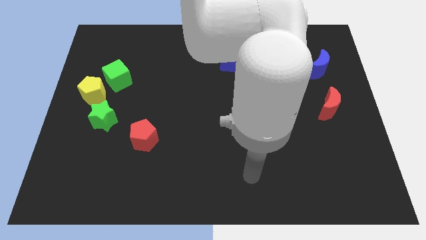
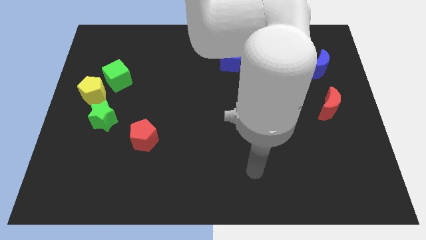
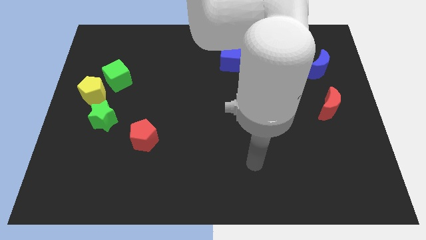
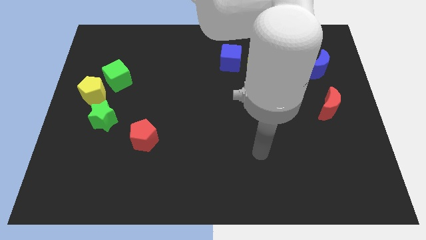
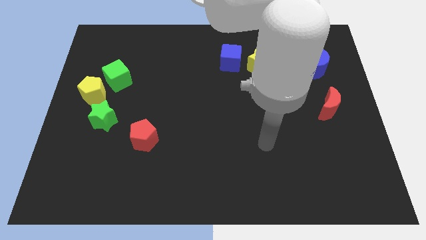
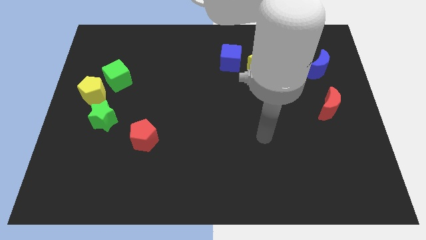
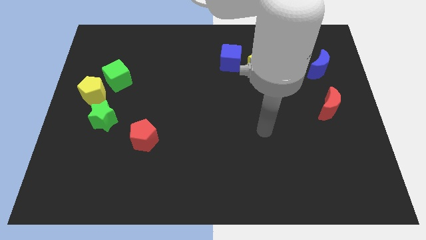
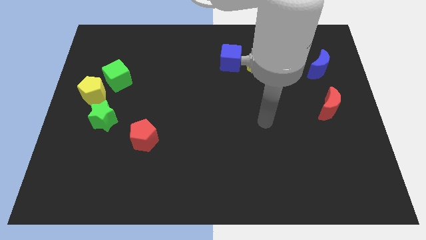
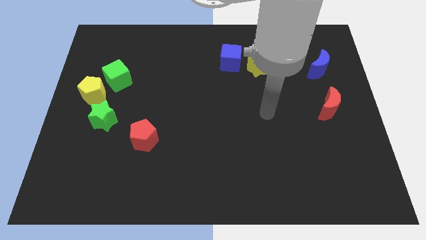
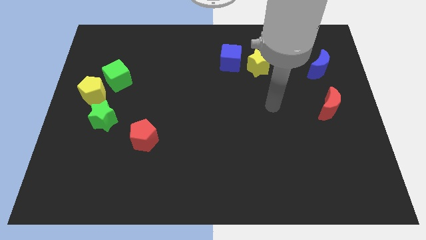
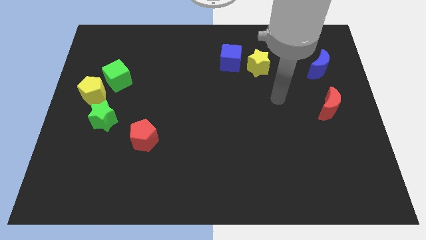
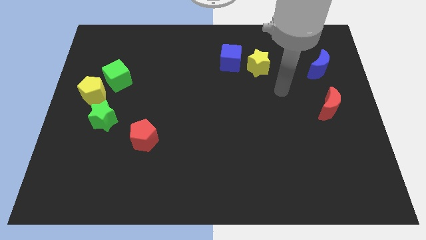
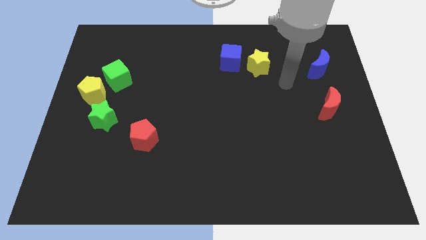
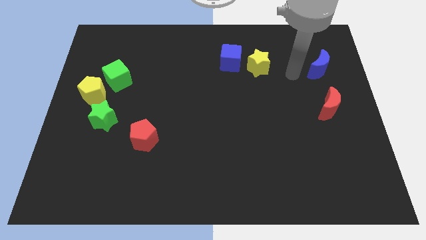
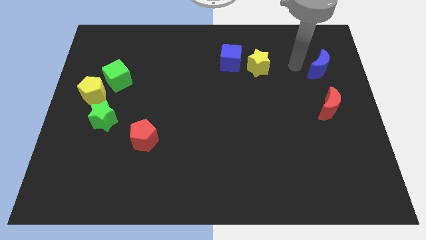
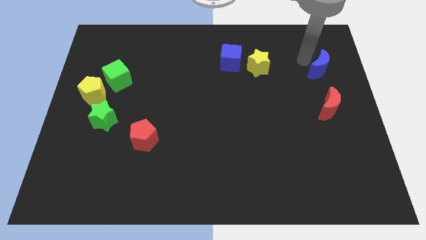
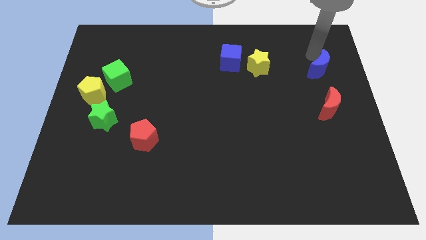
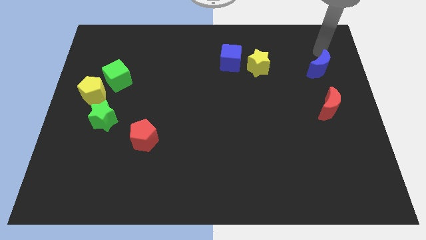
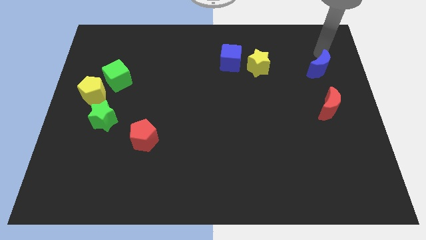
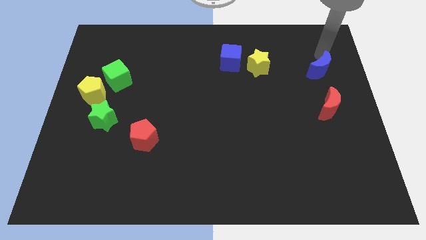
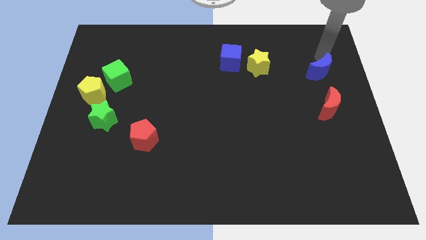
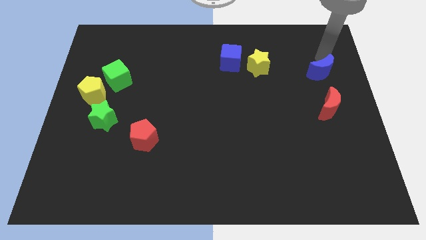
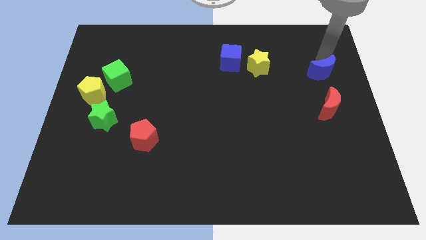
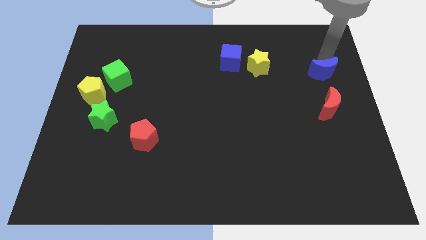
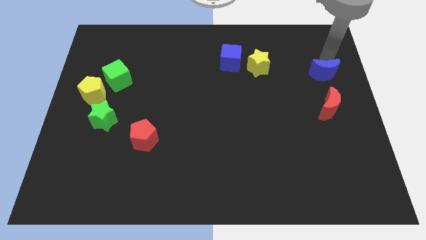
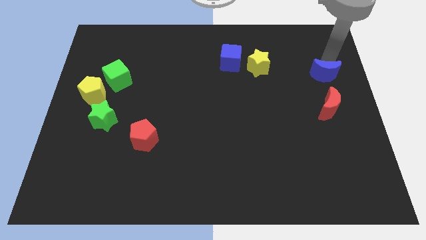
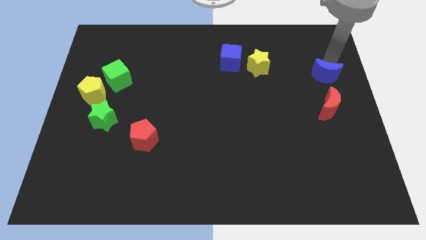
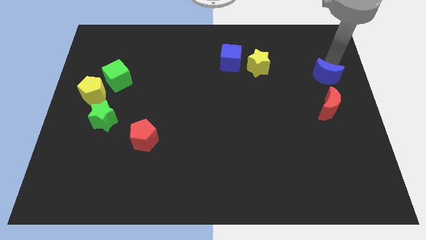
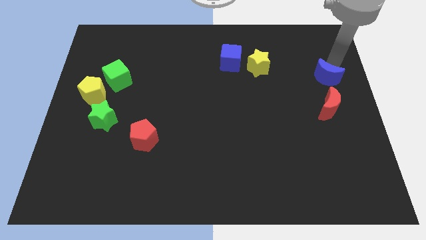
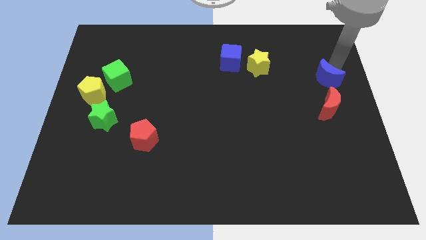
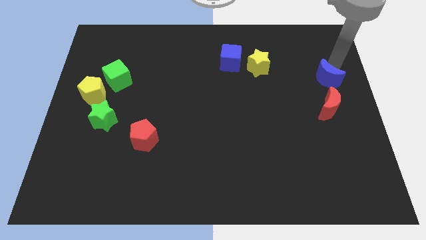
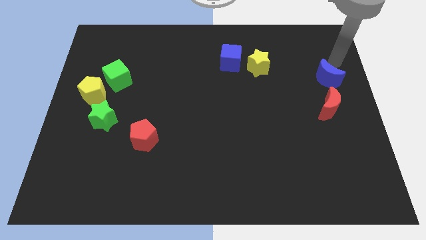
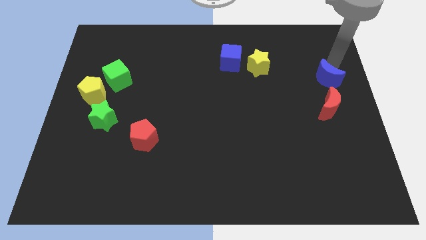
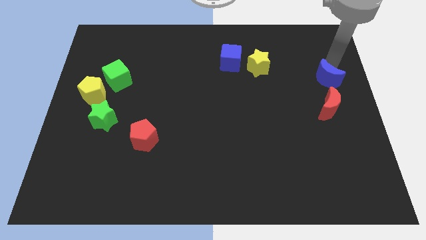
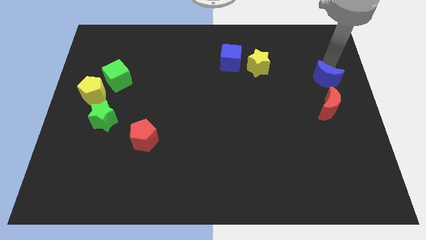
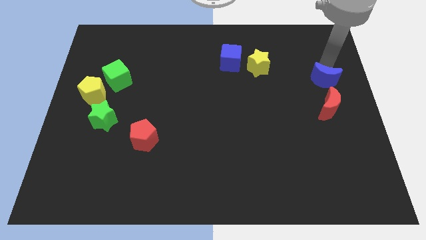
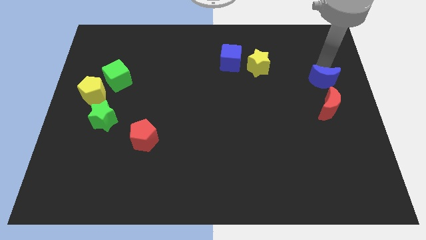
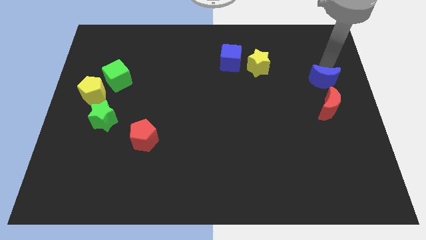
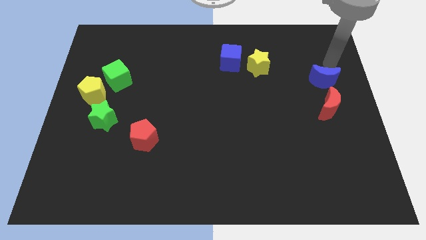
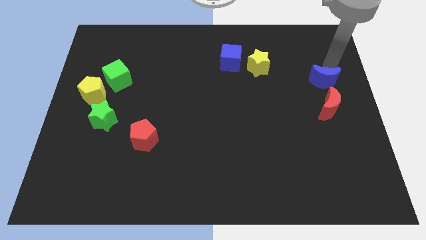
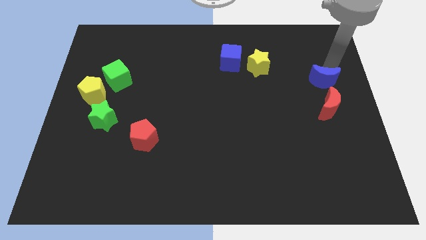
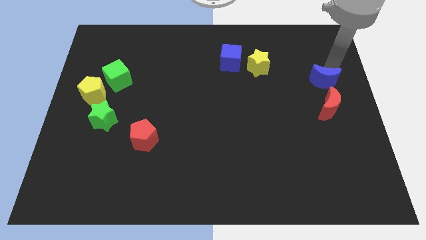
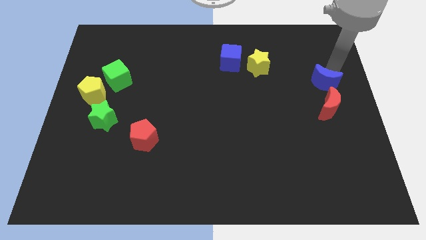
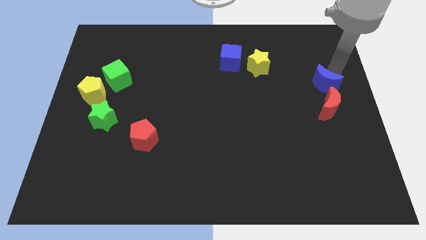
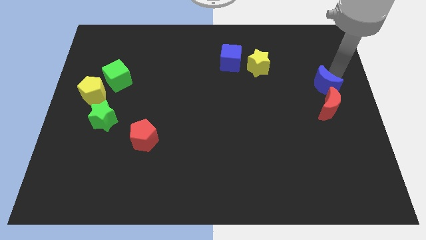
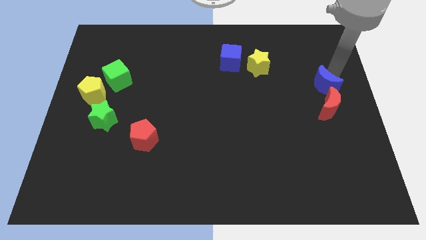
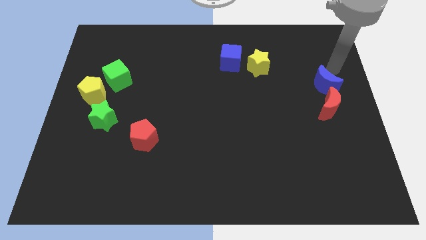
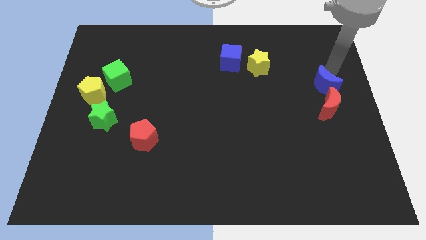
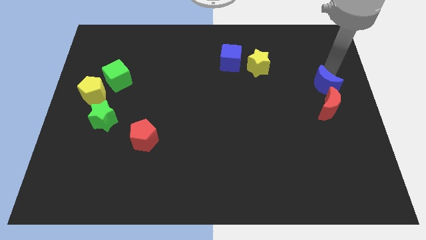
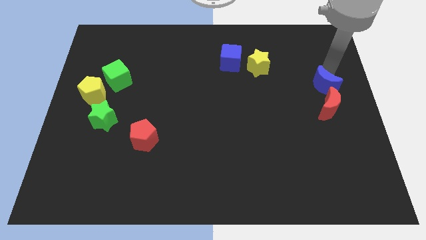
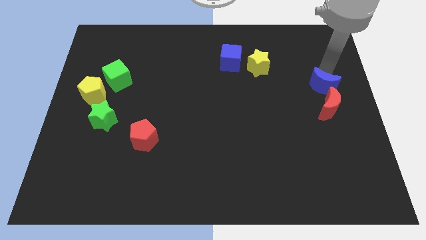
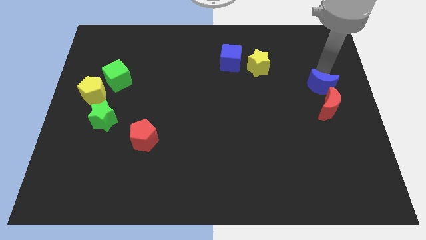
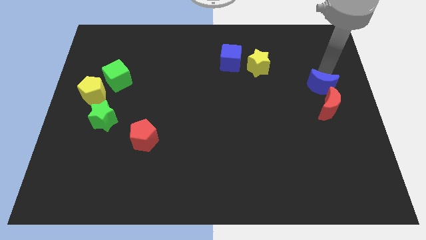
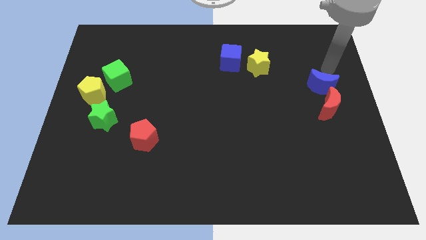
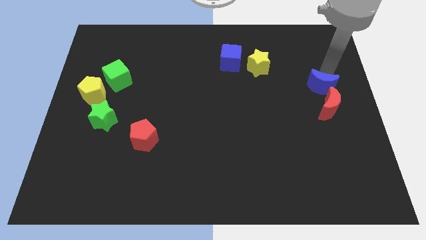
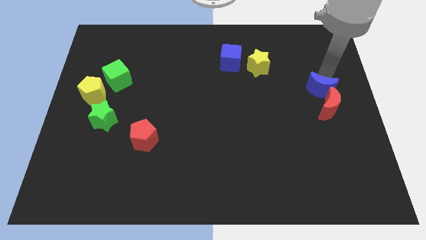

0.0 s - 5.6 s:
push the blue moon a bit downwards

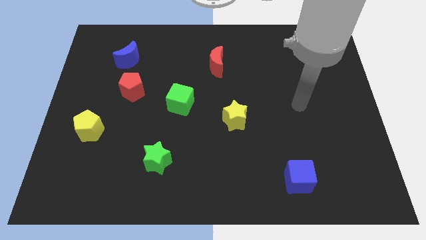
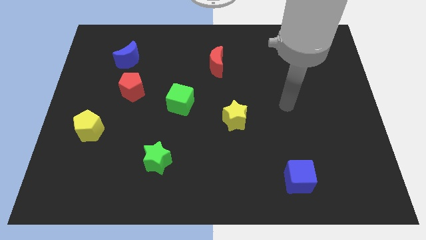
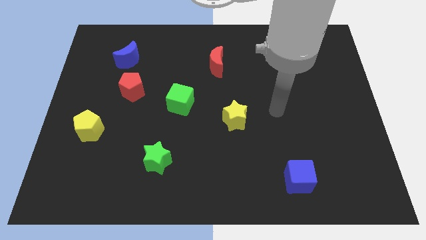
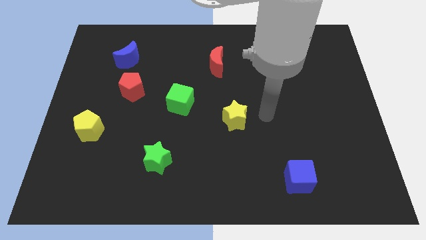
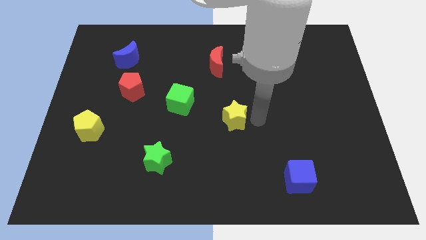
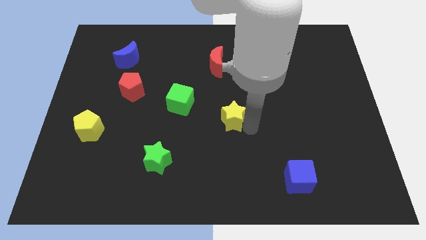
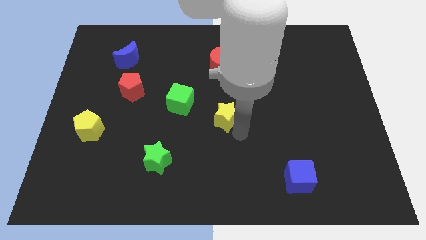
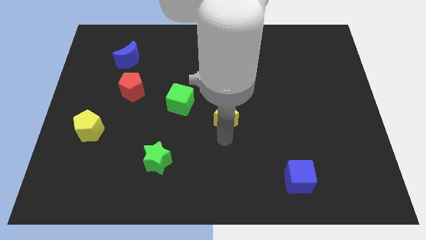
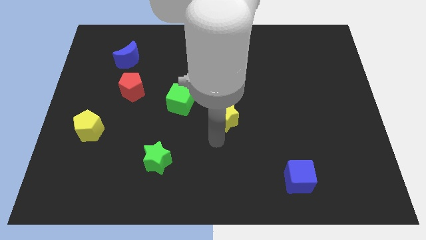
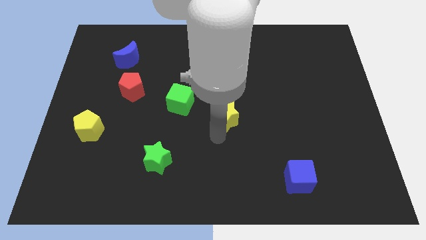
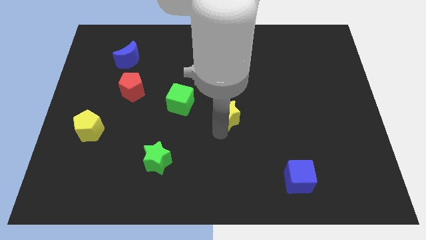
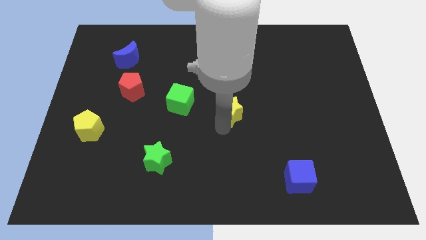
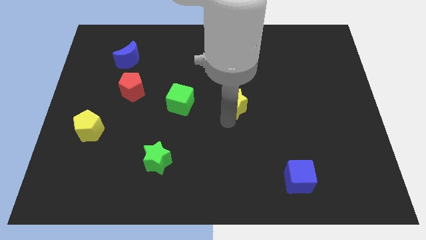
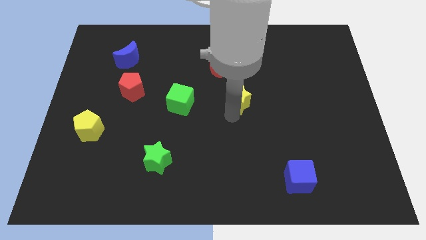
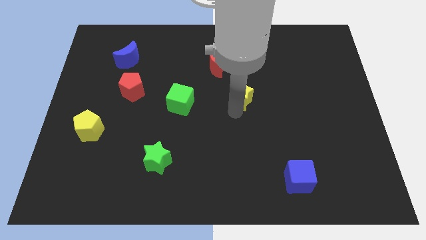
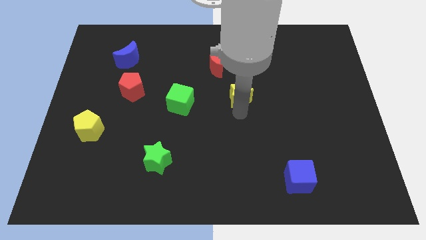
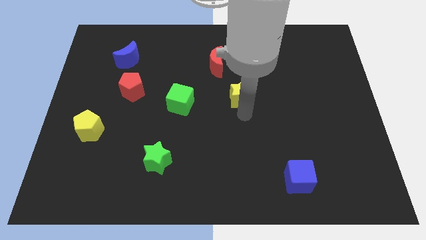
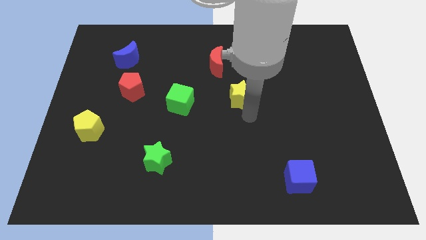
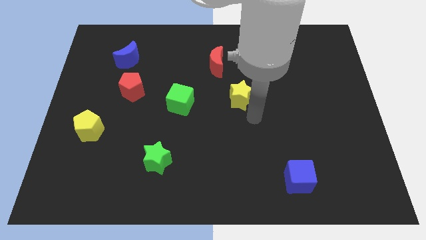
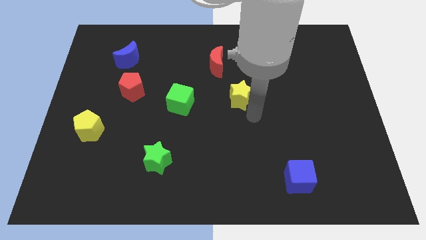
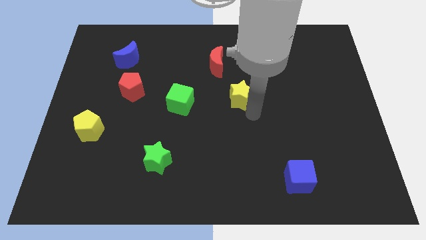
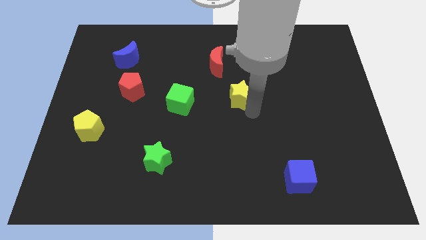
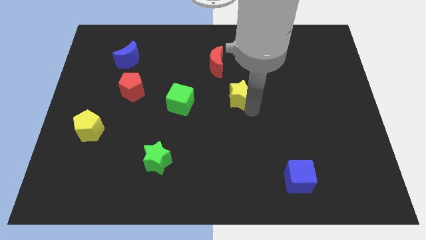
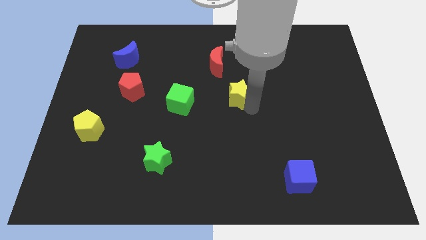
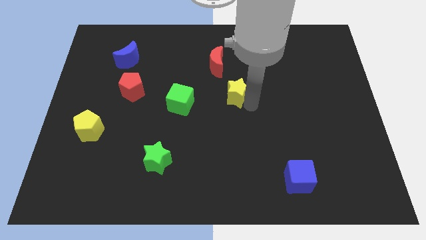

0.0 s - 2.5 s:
slightly push the yellow star upwards
